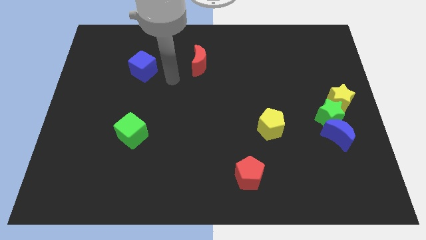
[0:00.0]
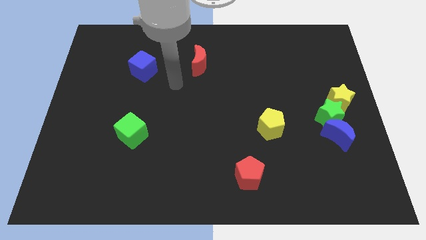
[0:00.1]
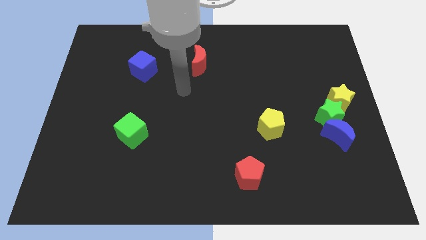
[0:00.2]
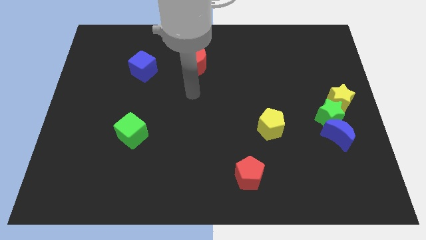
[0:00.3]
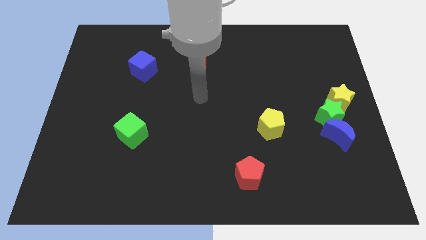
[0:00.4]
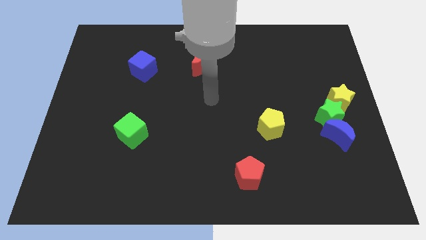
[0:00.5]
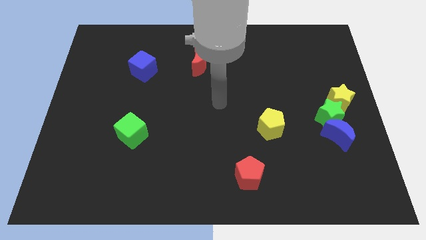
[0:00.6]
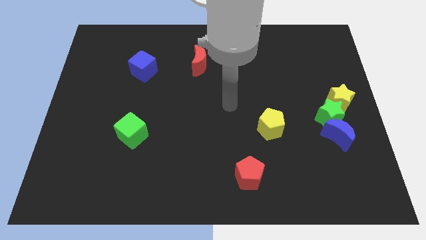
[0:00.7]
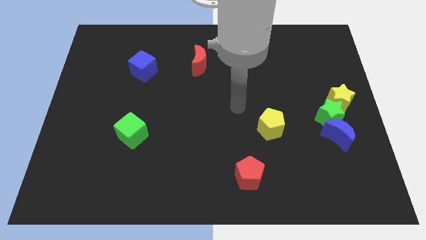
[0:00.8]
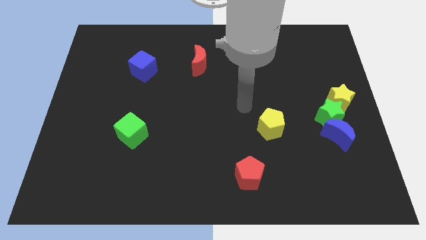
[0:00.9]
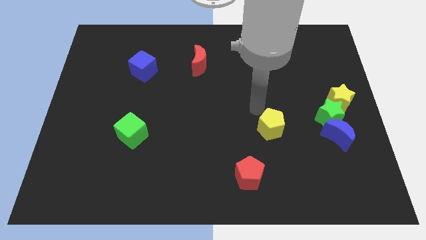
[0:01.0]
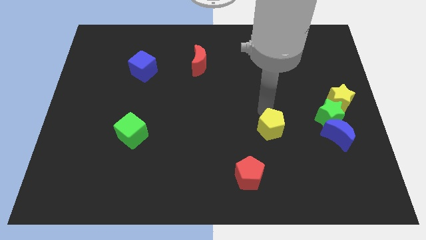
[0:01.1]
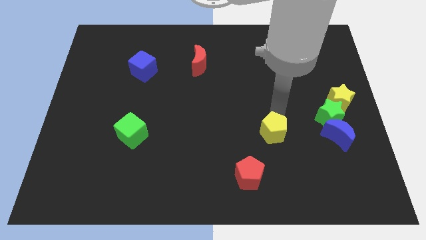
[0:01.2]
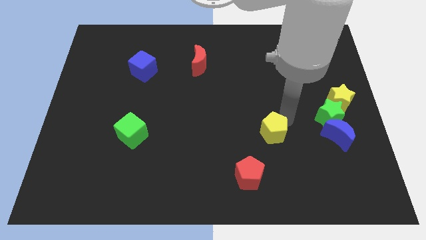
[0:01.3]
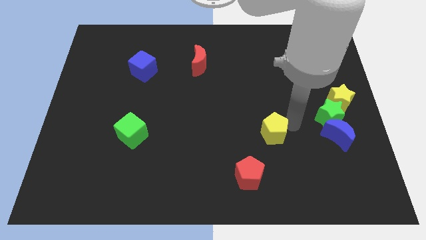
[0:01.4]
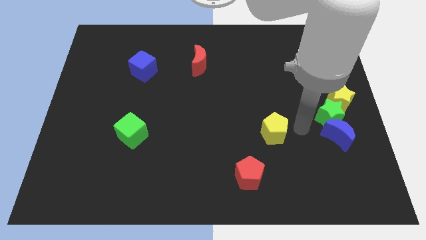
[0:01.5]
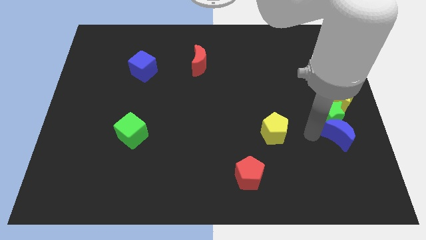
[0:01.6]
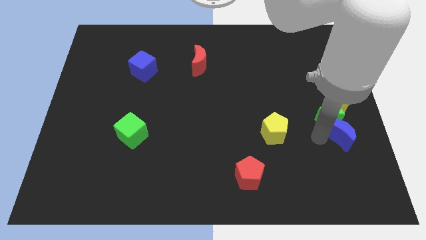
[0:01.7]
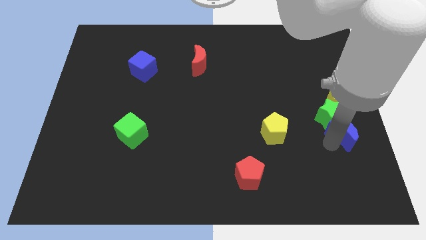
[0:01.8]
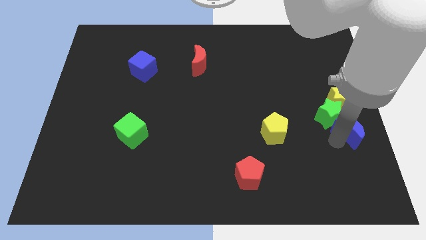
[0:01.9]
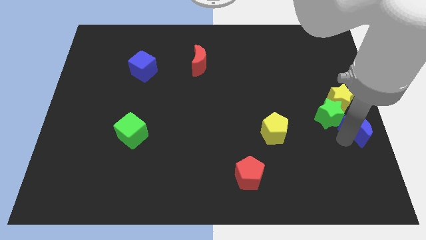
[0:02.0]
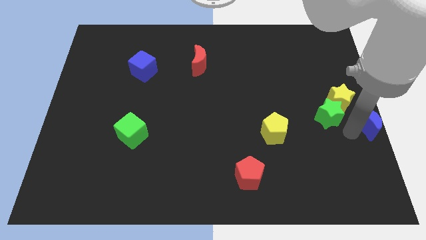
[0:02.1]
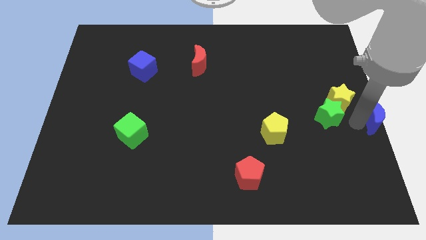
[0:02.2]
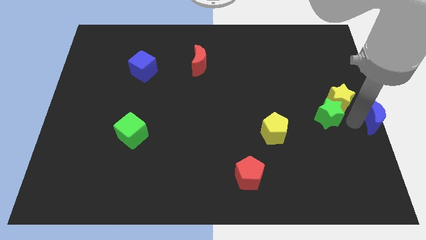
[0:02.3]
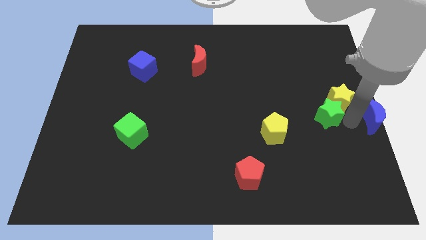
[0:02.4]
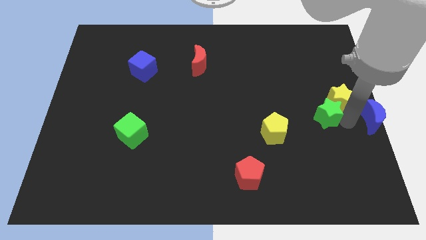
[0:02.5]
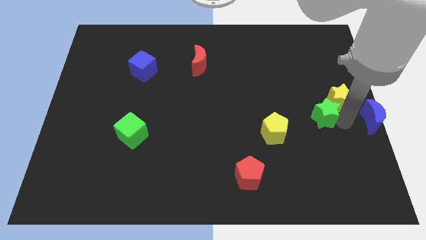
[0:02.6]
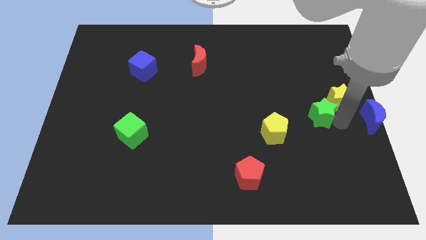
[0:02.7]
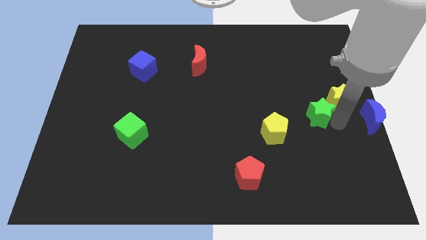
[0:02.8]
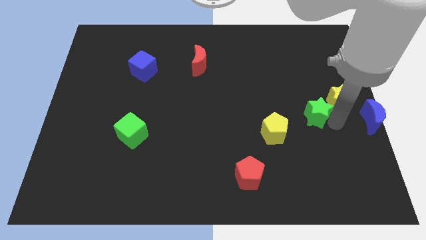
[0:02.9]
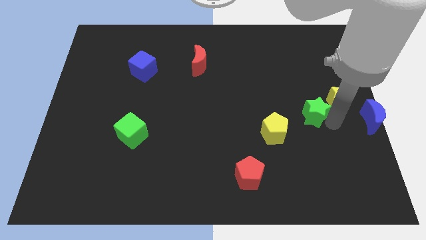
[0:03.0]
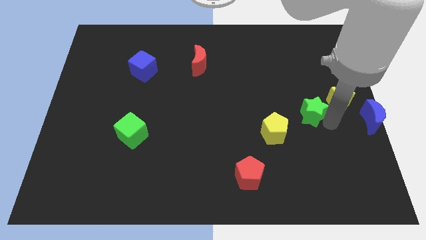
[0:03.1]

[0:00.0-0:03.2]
move the green star away from the yellow star and blue moon

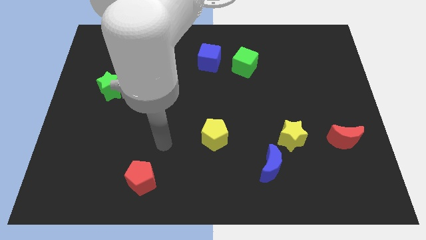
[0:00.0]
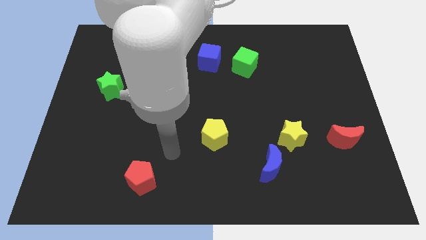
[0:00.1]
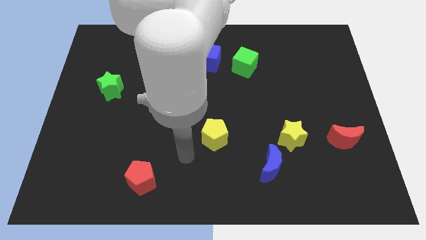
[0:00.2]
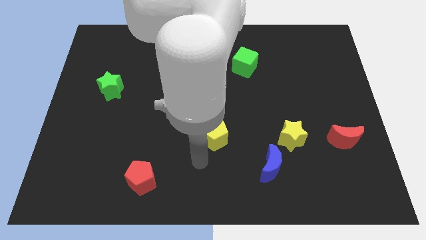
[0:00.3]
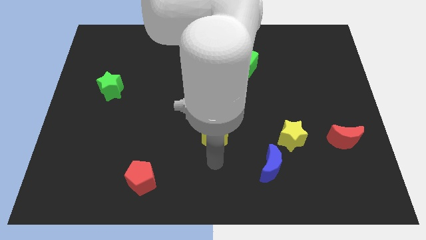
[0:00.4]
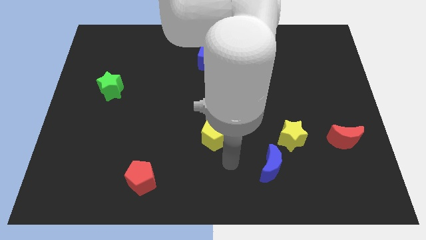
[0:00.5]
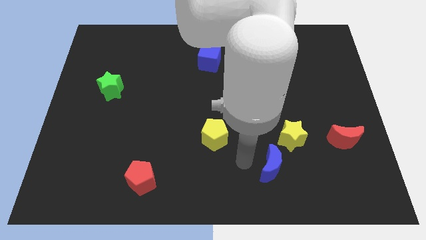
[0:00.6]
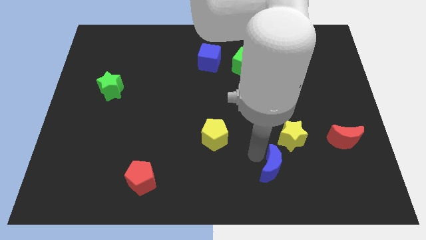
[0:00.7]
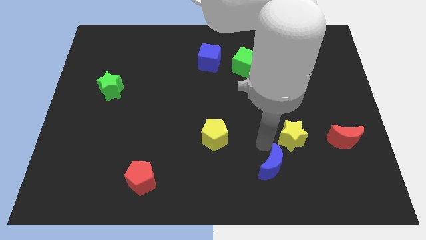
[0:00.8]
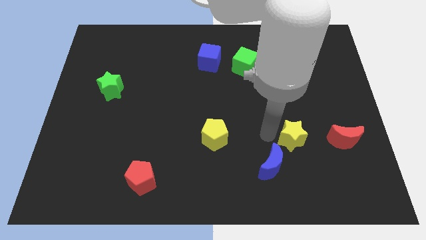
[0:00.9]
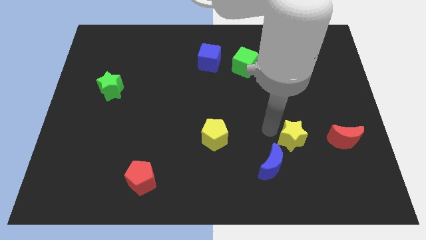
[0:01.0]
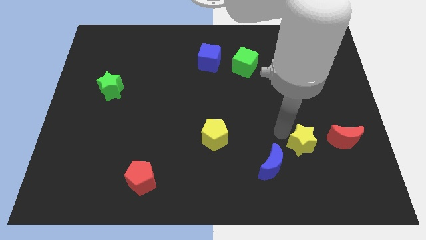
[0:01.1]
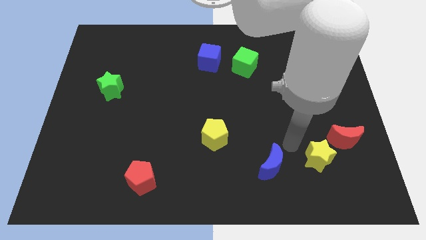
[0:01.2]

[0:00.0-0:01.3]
move the blue moon away from the yellow star

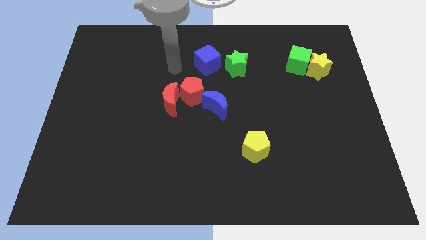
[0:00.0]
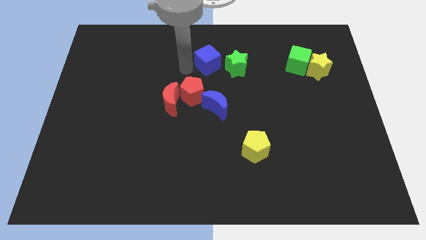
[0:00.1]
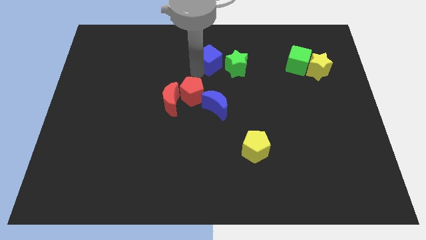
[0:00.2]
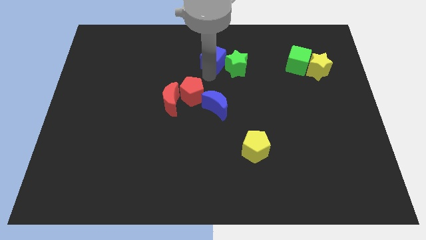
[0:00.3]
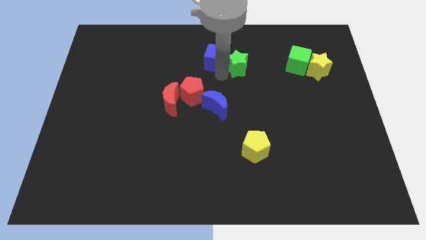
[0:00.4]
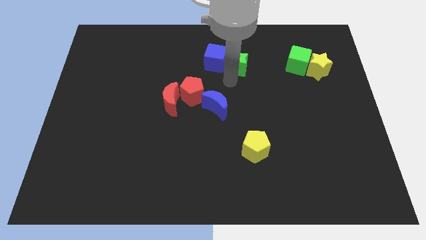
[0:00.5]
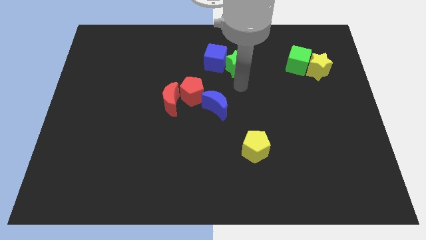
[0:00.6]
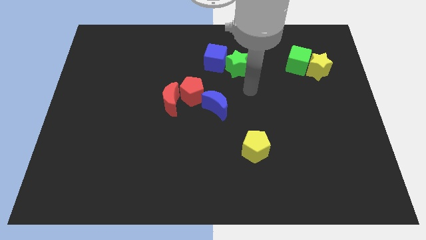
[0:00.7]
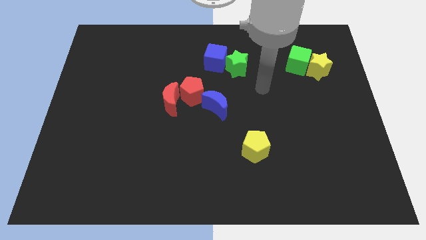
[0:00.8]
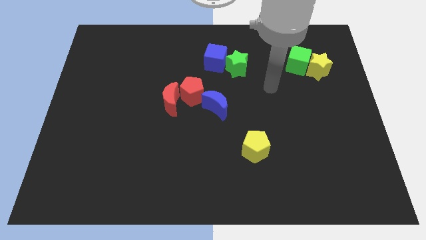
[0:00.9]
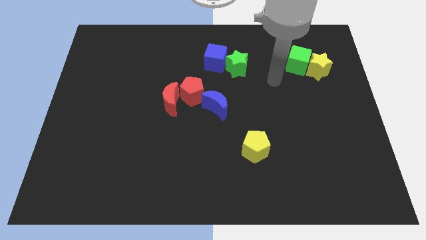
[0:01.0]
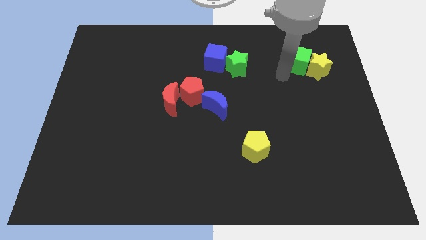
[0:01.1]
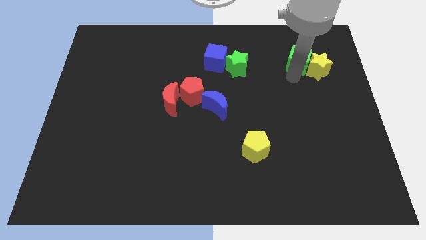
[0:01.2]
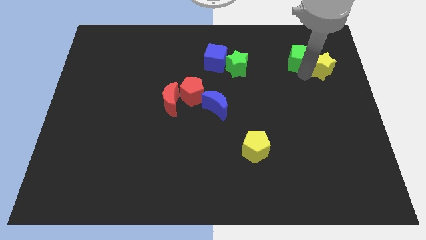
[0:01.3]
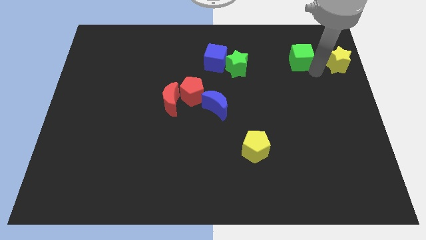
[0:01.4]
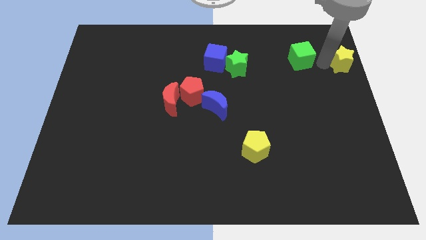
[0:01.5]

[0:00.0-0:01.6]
separate the green cube from the yellow star

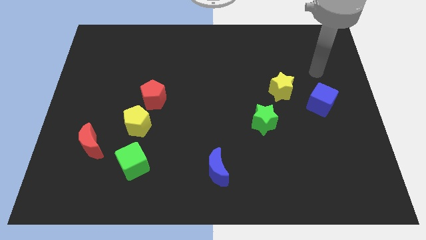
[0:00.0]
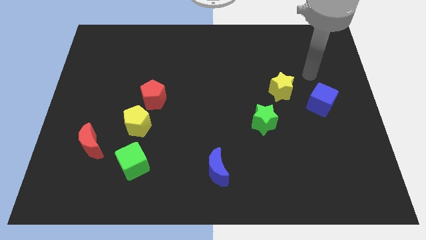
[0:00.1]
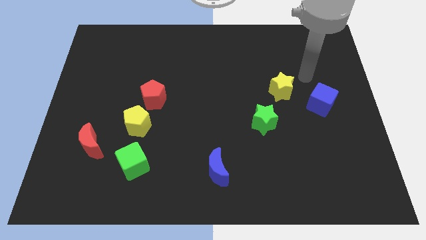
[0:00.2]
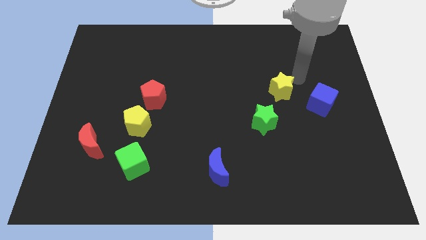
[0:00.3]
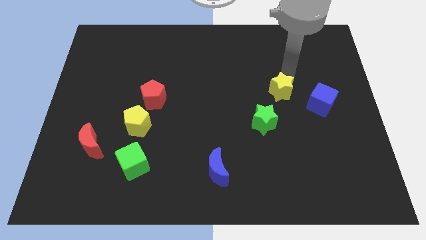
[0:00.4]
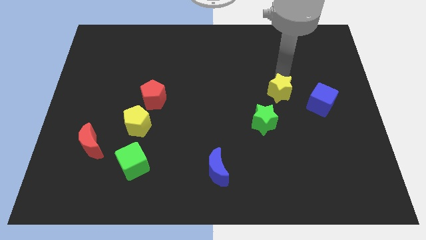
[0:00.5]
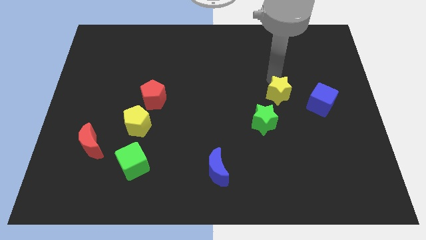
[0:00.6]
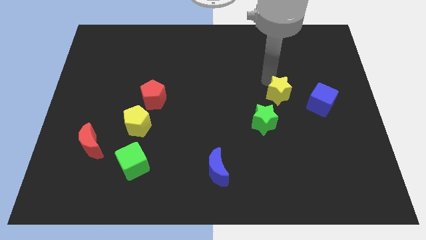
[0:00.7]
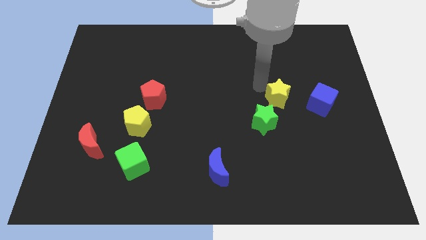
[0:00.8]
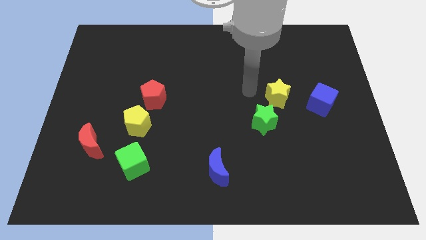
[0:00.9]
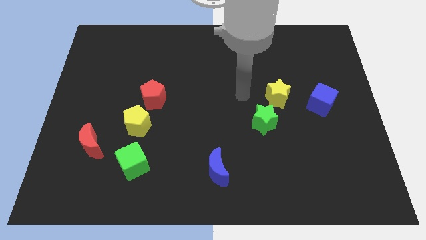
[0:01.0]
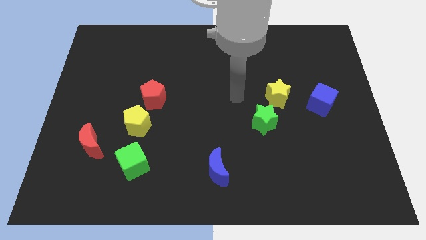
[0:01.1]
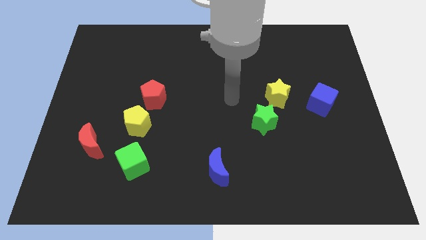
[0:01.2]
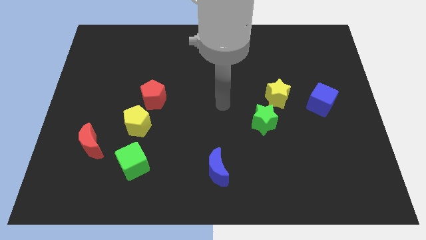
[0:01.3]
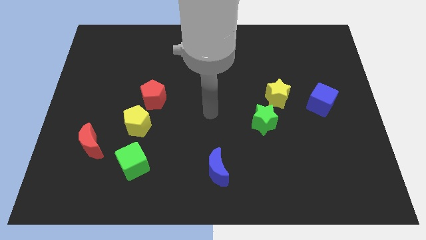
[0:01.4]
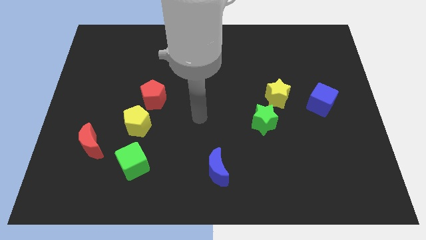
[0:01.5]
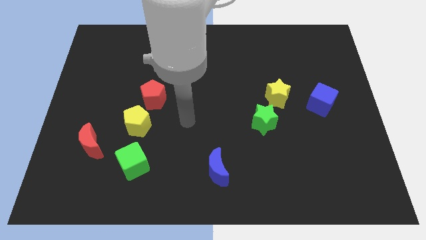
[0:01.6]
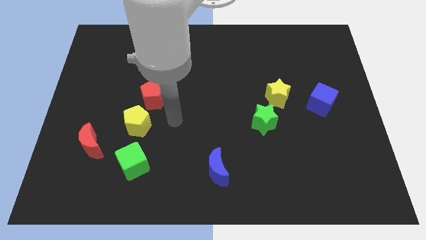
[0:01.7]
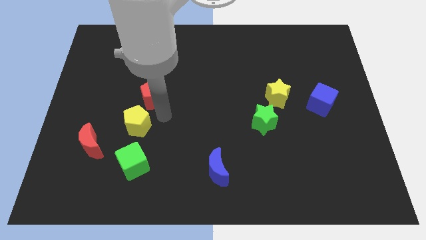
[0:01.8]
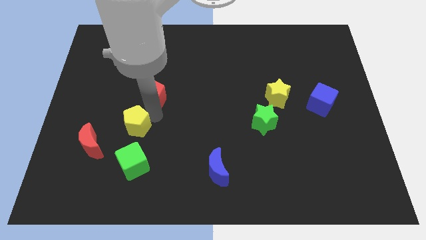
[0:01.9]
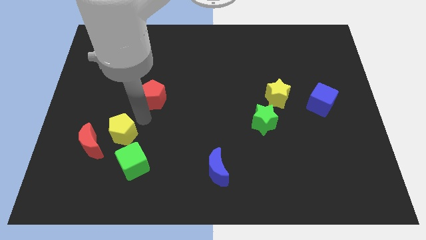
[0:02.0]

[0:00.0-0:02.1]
move the red pentagon away from the yellow pentagon

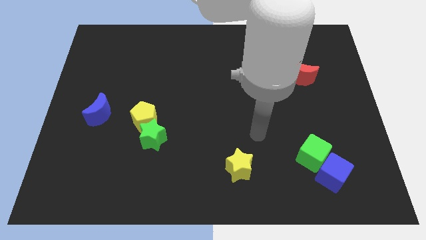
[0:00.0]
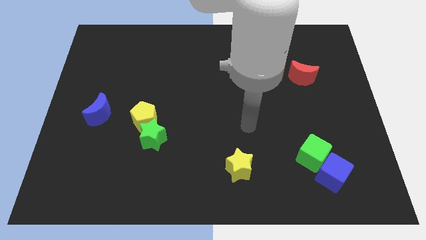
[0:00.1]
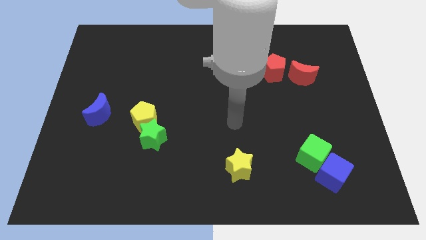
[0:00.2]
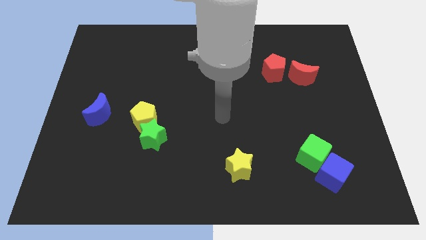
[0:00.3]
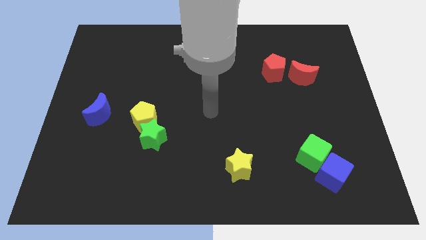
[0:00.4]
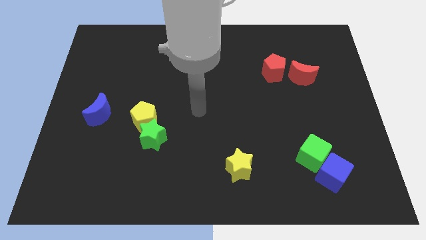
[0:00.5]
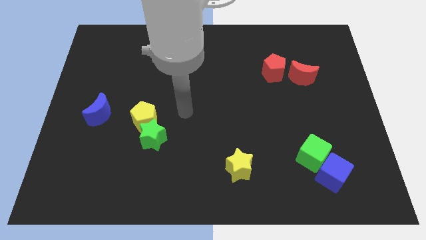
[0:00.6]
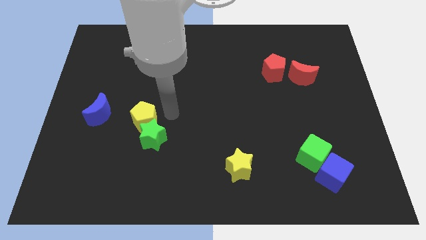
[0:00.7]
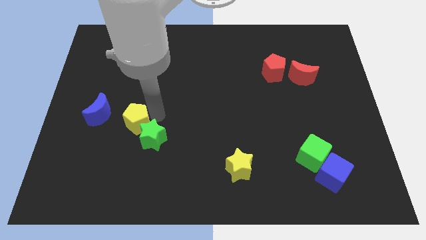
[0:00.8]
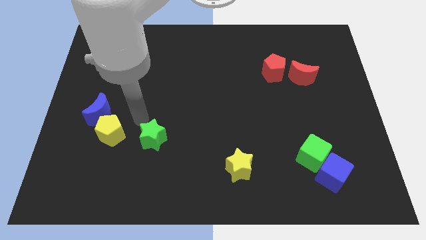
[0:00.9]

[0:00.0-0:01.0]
move the green star away from the yellow pentagon

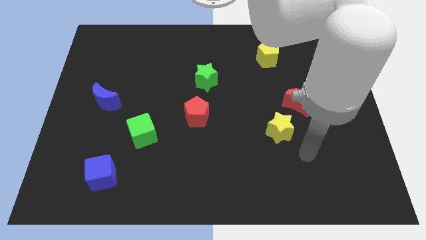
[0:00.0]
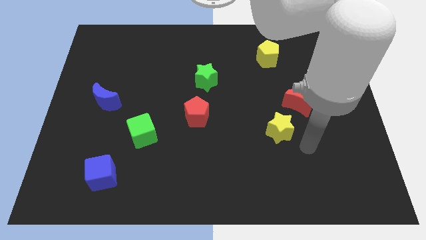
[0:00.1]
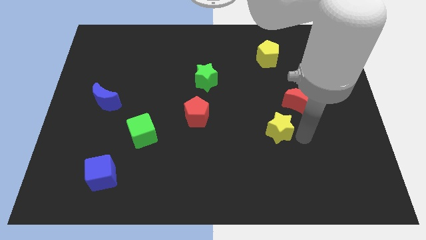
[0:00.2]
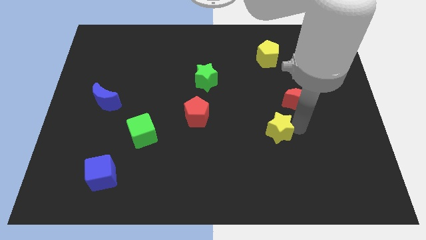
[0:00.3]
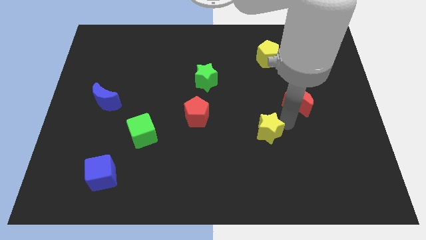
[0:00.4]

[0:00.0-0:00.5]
pull the red moon apart from the yellow star
